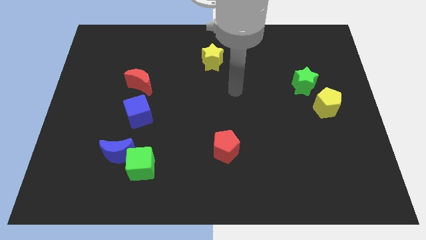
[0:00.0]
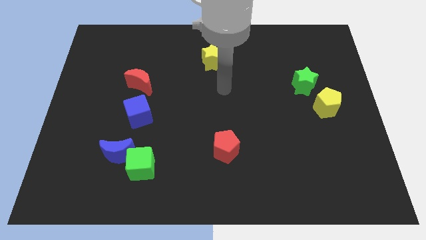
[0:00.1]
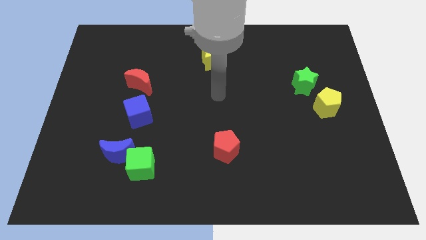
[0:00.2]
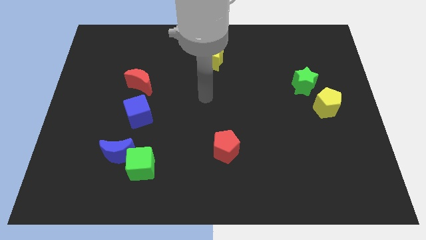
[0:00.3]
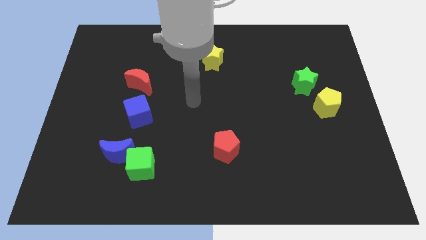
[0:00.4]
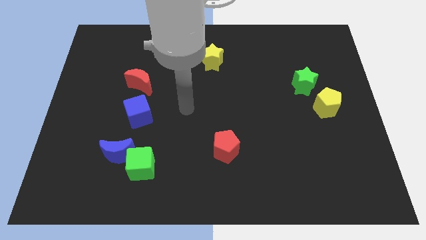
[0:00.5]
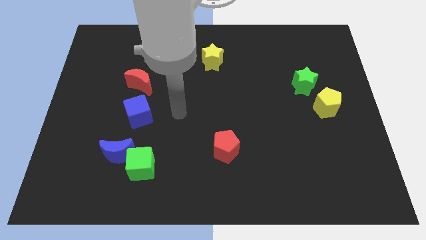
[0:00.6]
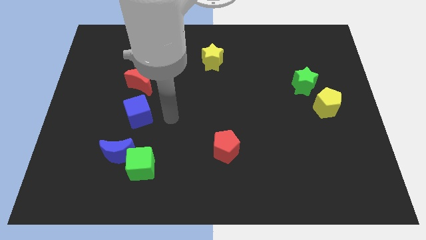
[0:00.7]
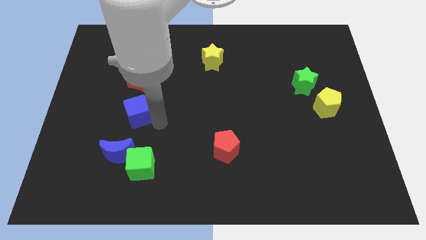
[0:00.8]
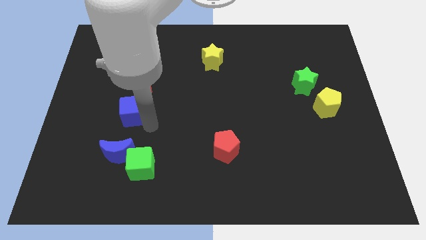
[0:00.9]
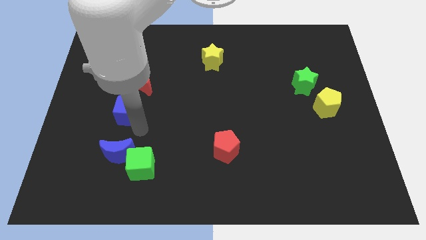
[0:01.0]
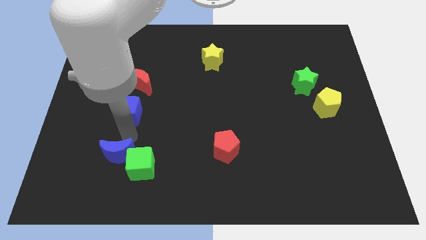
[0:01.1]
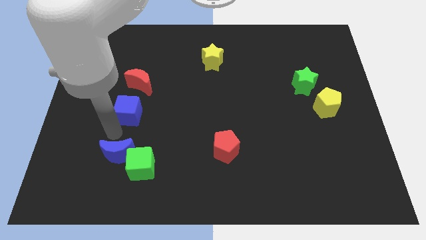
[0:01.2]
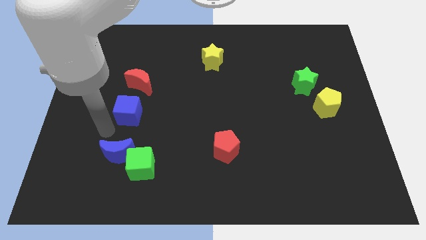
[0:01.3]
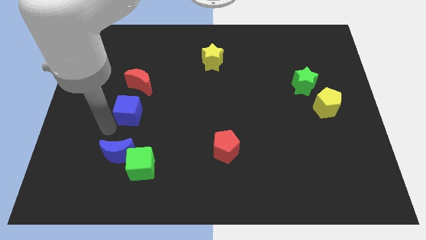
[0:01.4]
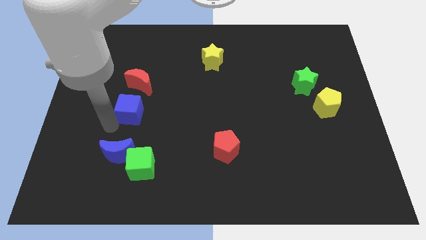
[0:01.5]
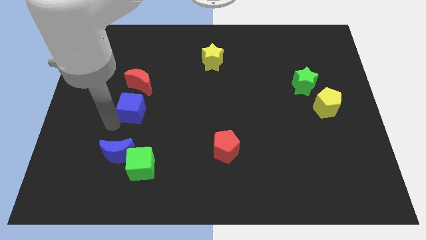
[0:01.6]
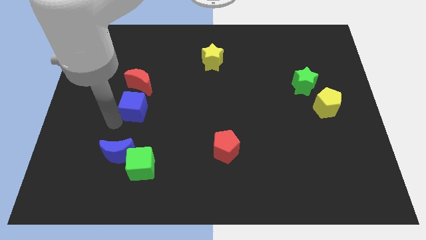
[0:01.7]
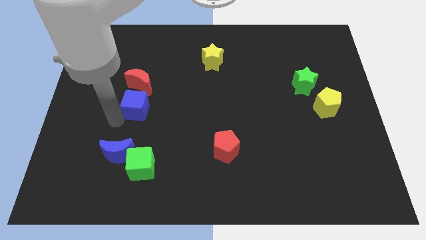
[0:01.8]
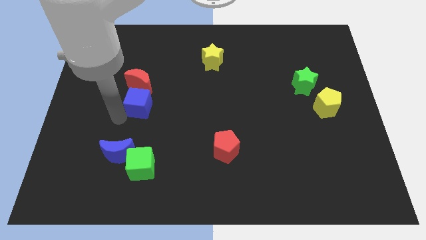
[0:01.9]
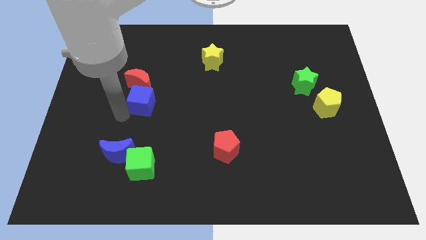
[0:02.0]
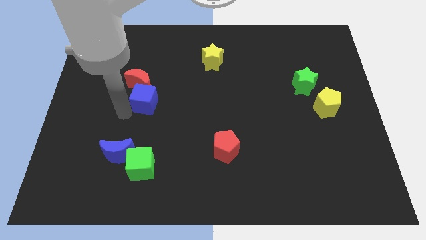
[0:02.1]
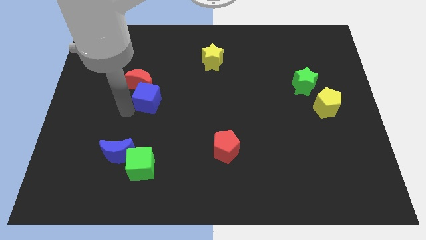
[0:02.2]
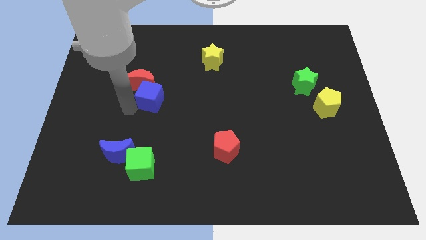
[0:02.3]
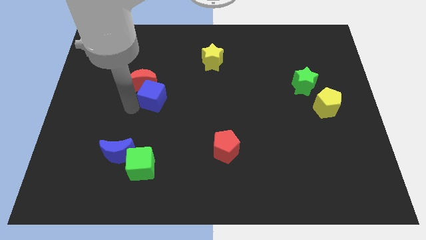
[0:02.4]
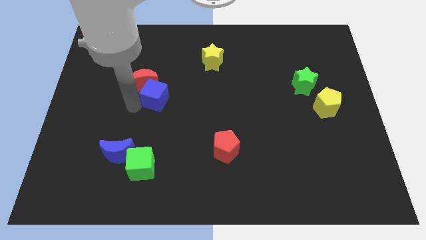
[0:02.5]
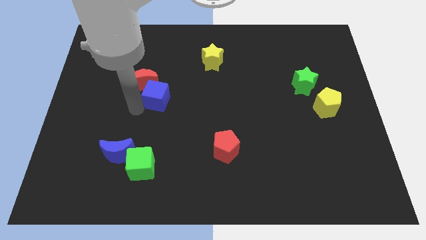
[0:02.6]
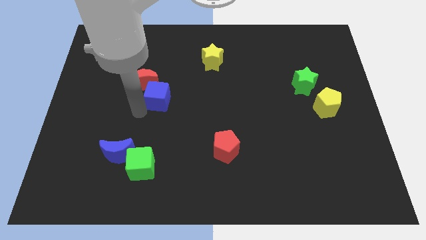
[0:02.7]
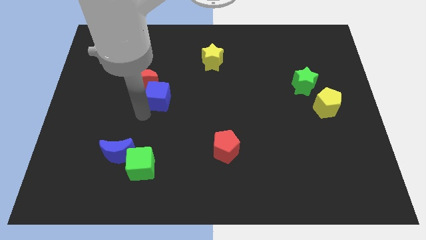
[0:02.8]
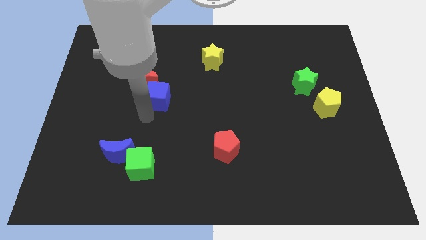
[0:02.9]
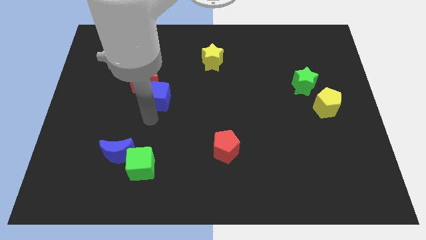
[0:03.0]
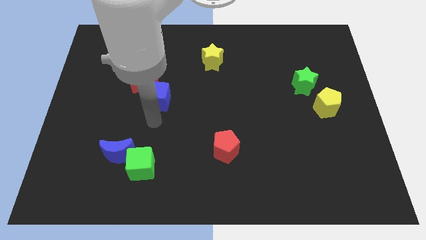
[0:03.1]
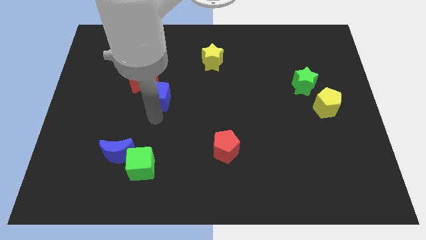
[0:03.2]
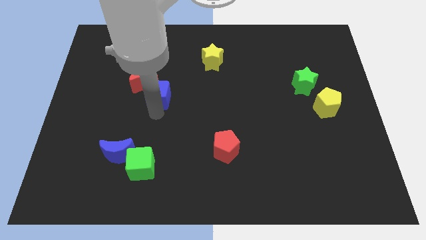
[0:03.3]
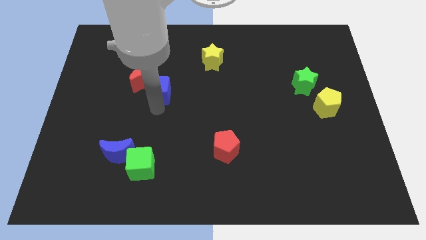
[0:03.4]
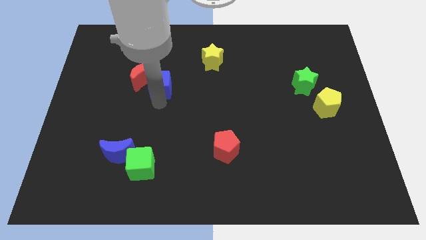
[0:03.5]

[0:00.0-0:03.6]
push the blue cube up somewhat

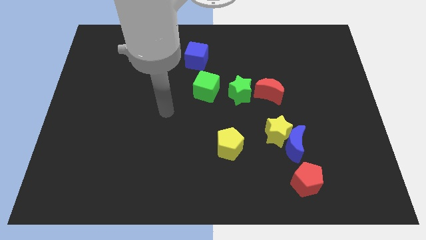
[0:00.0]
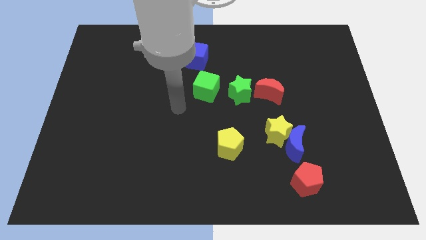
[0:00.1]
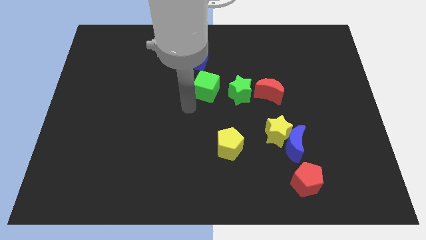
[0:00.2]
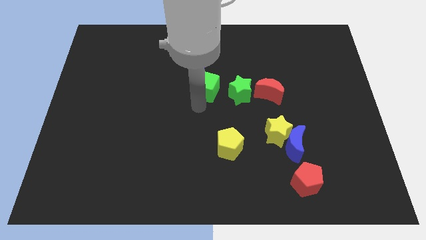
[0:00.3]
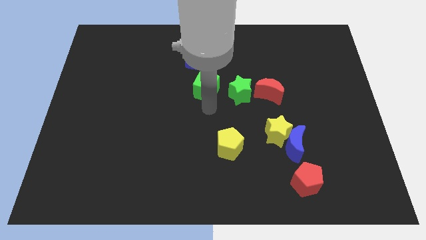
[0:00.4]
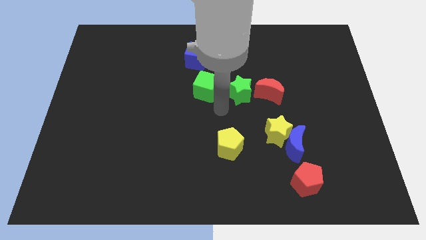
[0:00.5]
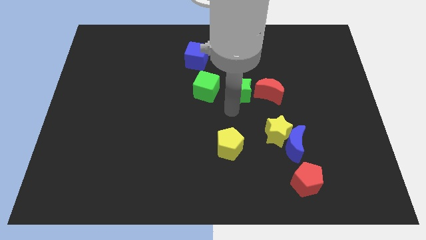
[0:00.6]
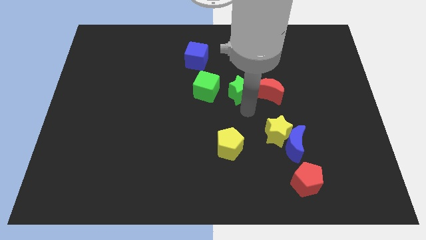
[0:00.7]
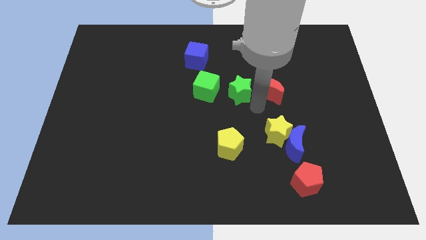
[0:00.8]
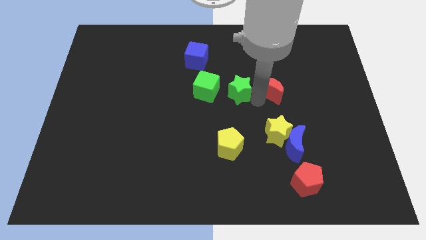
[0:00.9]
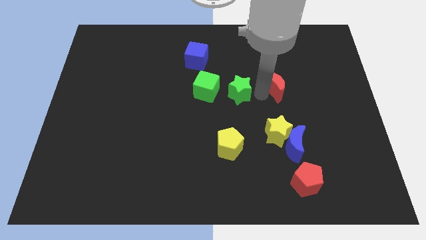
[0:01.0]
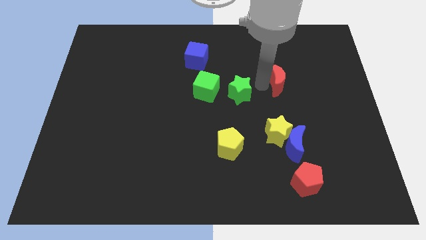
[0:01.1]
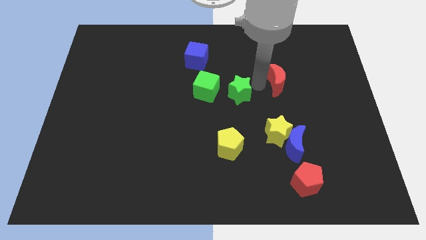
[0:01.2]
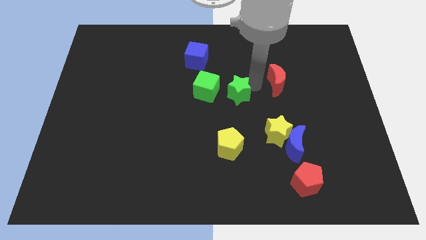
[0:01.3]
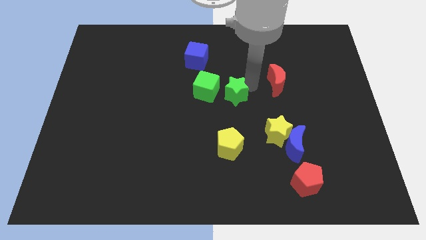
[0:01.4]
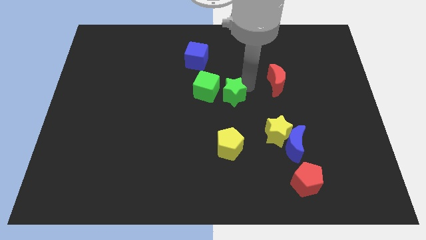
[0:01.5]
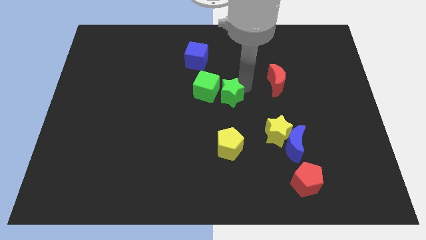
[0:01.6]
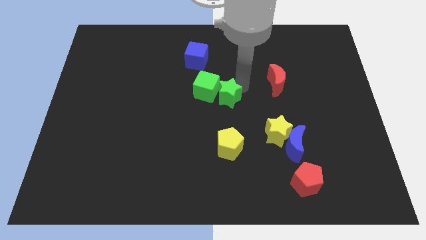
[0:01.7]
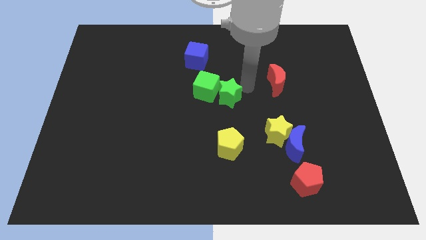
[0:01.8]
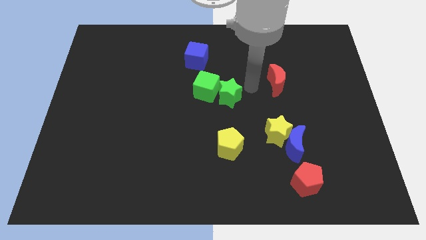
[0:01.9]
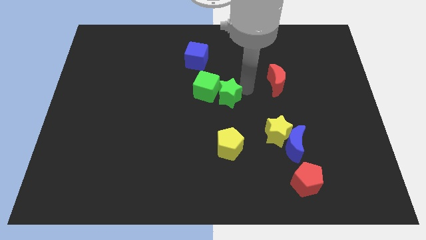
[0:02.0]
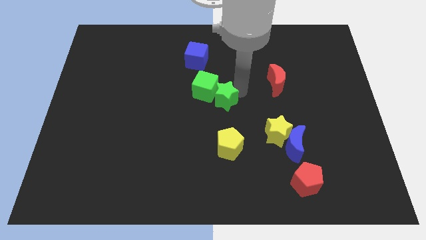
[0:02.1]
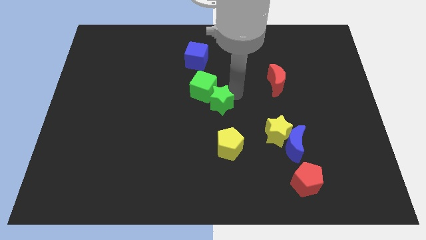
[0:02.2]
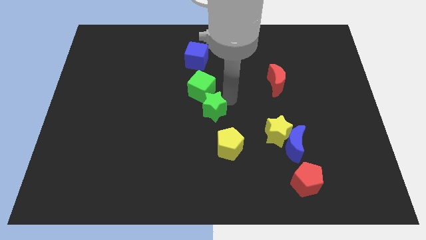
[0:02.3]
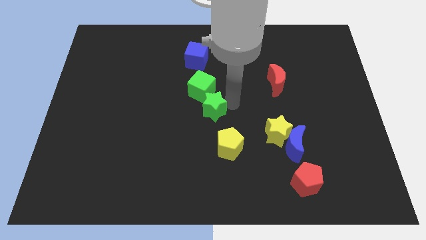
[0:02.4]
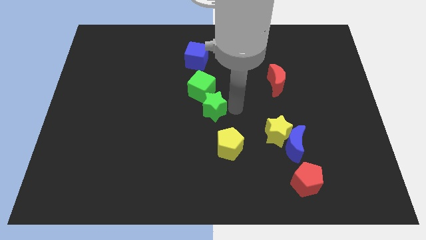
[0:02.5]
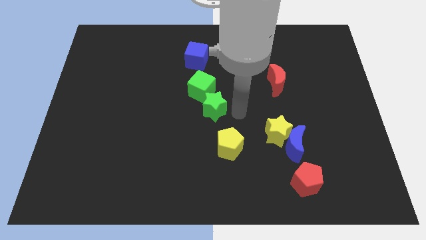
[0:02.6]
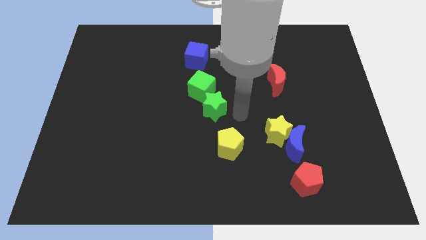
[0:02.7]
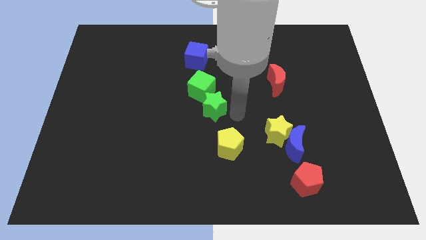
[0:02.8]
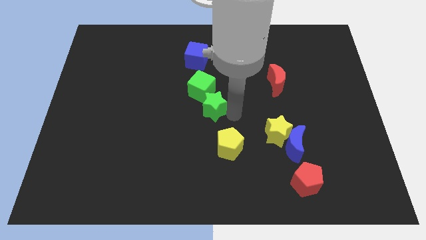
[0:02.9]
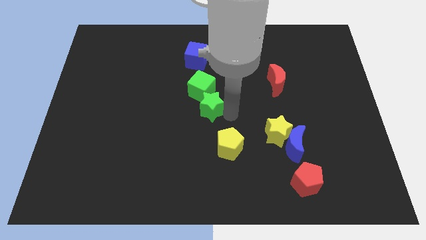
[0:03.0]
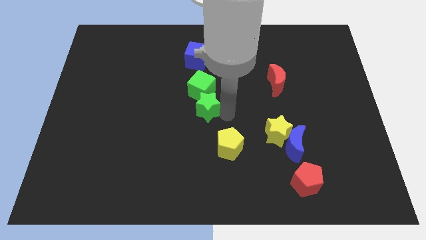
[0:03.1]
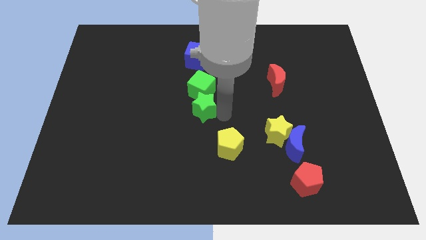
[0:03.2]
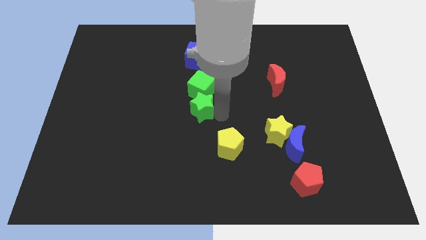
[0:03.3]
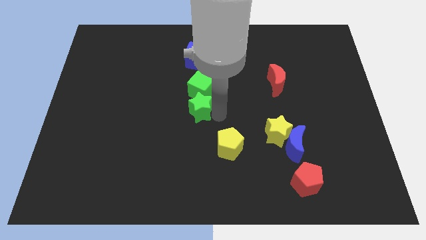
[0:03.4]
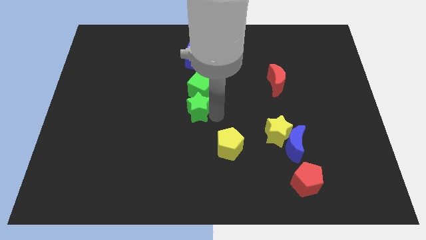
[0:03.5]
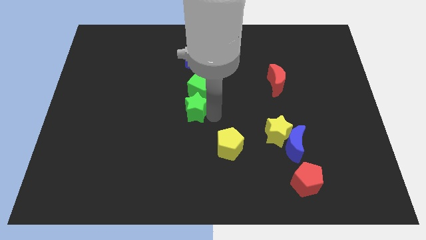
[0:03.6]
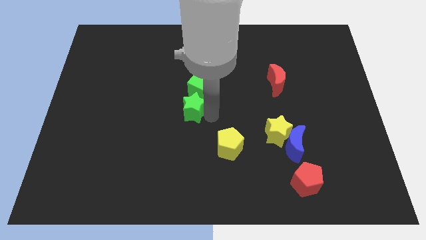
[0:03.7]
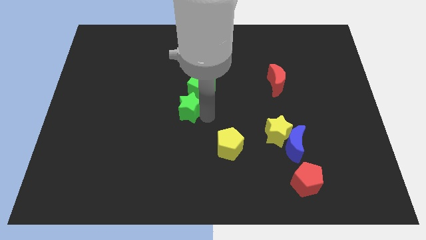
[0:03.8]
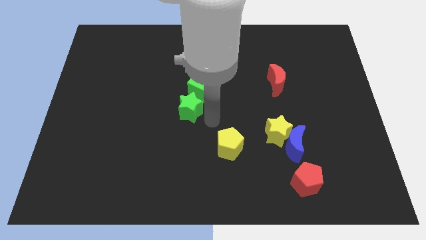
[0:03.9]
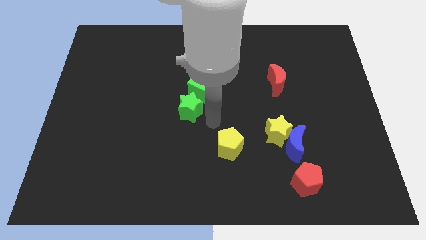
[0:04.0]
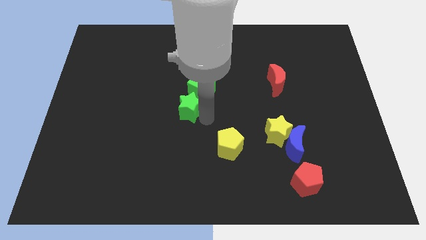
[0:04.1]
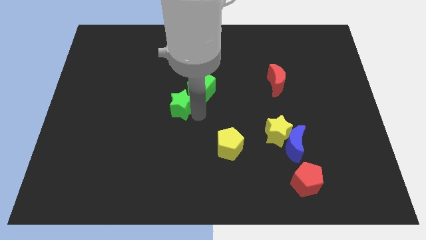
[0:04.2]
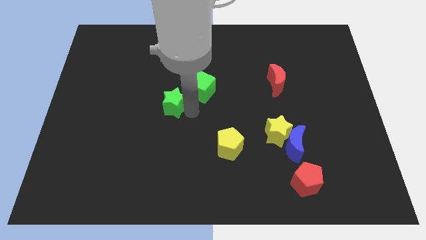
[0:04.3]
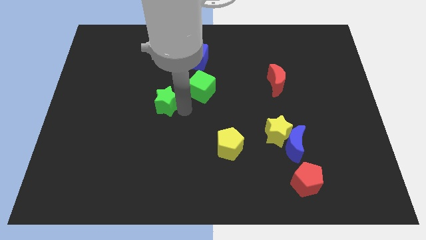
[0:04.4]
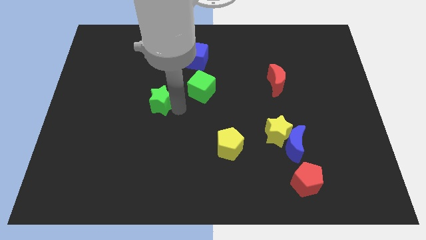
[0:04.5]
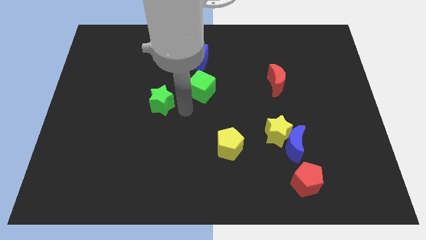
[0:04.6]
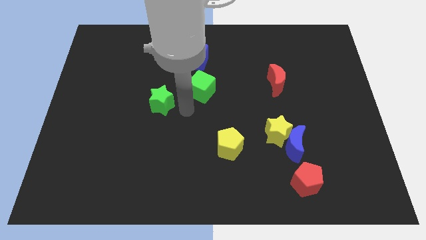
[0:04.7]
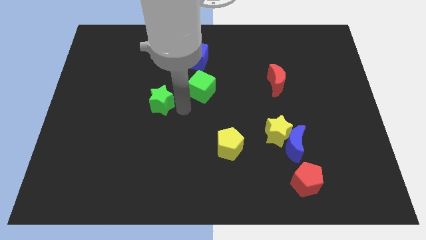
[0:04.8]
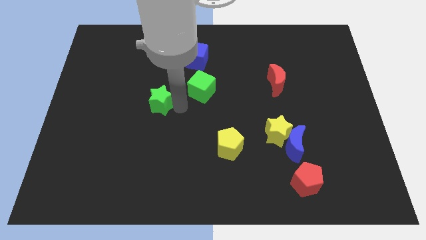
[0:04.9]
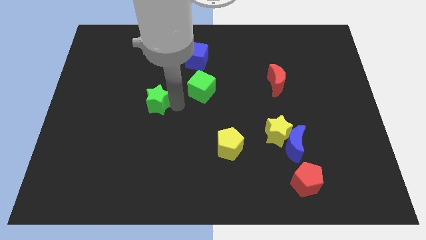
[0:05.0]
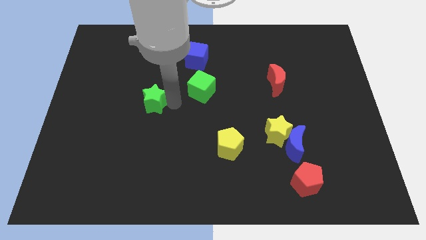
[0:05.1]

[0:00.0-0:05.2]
move the green star left
